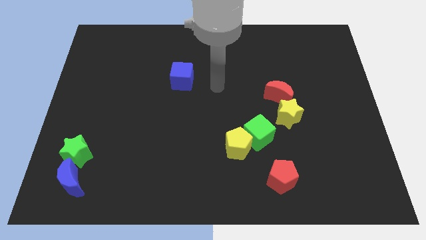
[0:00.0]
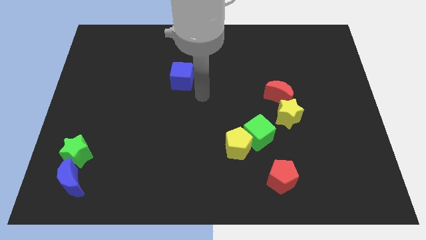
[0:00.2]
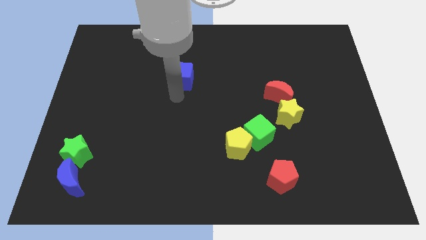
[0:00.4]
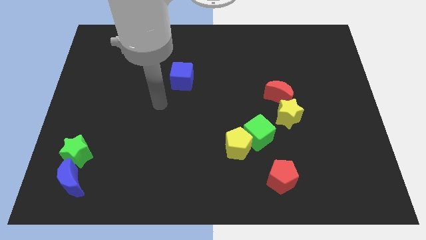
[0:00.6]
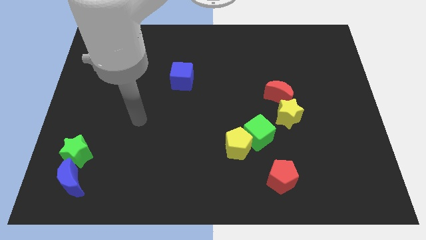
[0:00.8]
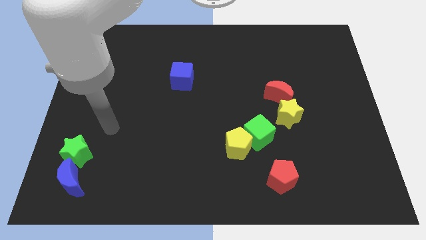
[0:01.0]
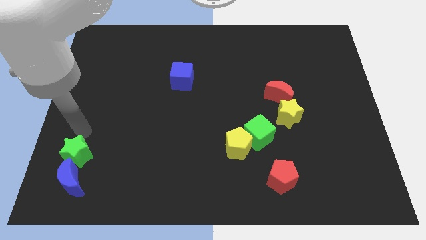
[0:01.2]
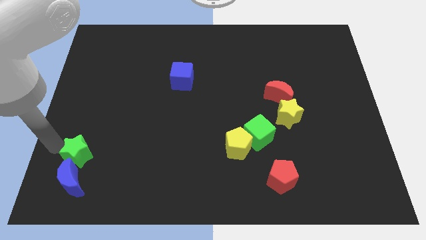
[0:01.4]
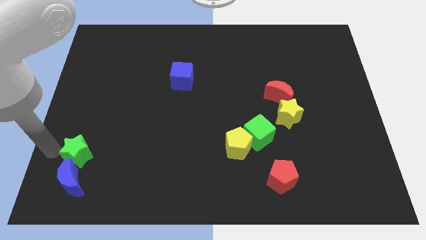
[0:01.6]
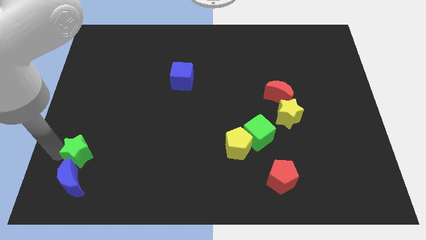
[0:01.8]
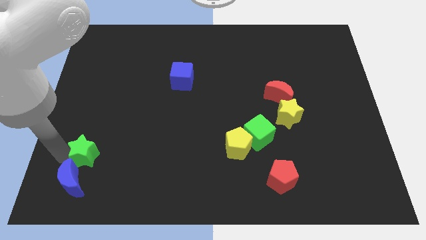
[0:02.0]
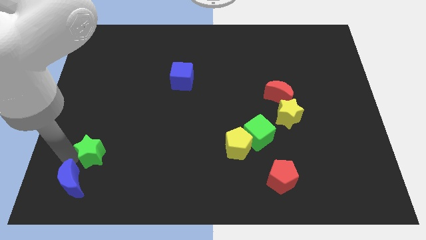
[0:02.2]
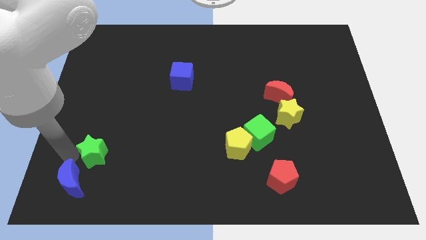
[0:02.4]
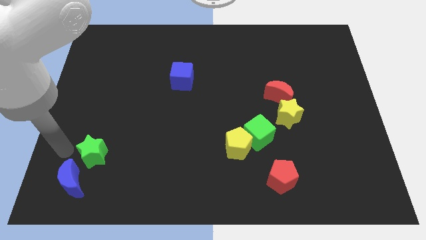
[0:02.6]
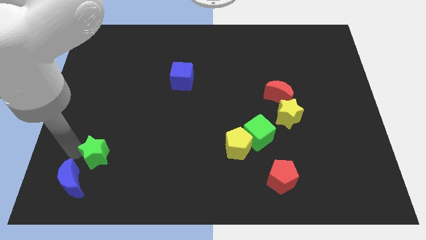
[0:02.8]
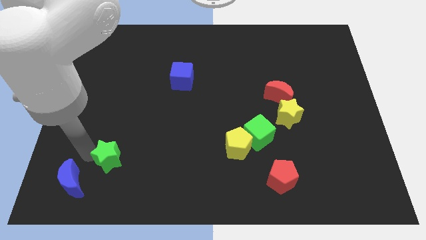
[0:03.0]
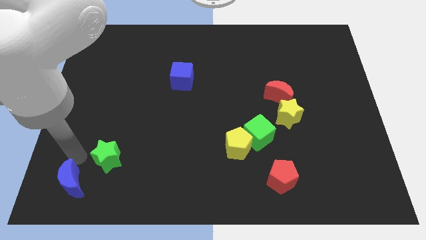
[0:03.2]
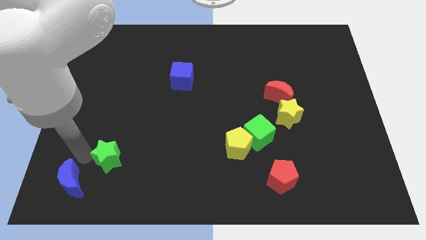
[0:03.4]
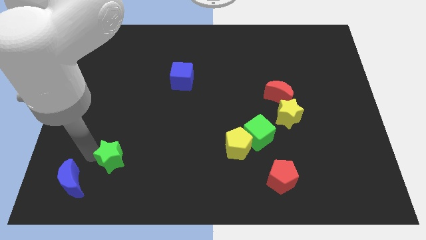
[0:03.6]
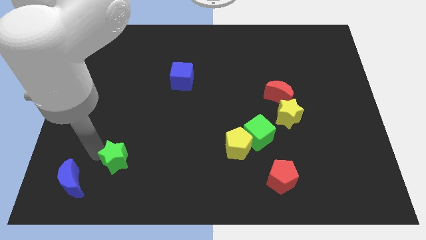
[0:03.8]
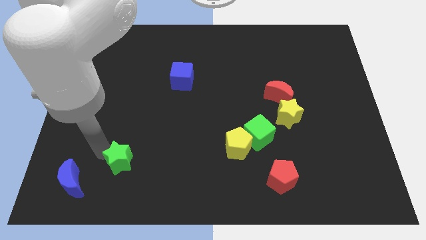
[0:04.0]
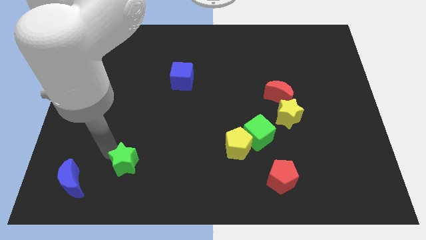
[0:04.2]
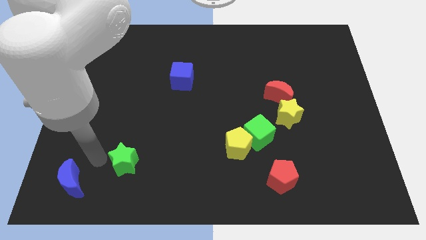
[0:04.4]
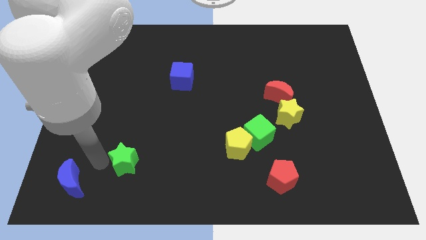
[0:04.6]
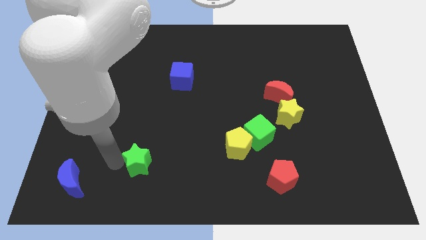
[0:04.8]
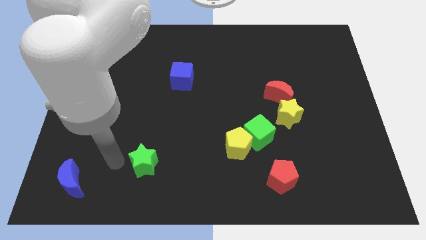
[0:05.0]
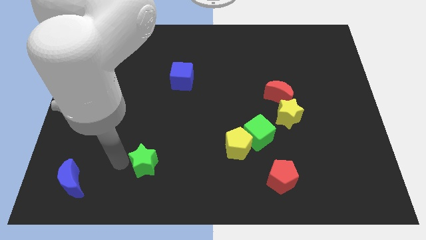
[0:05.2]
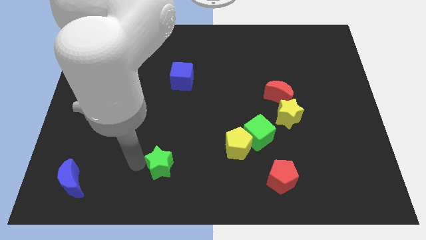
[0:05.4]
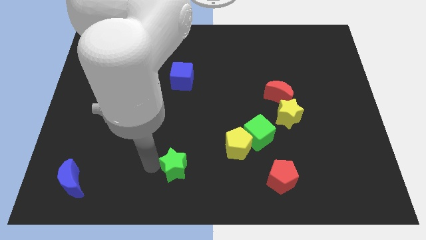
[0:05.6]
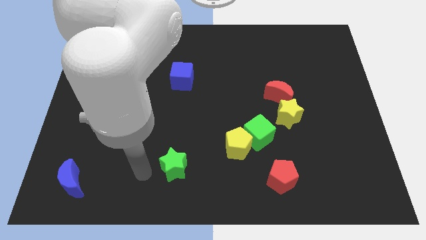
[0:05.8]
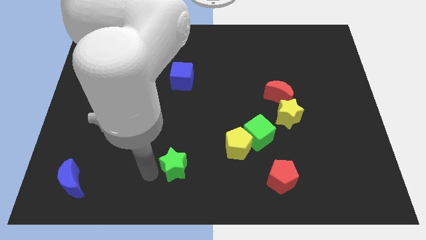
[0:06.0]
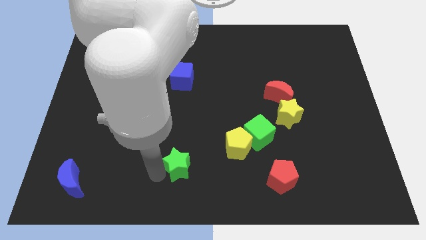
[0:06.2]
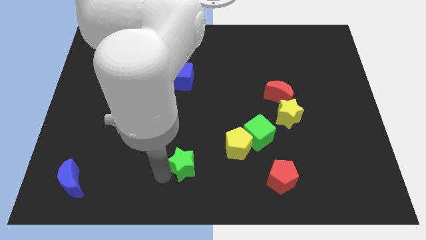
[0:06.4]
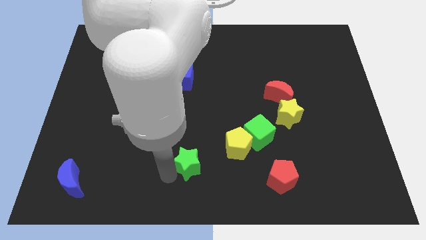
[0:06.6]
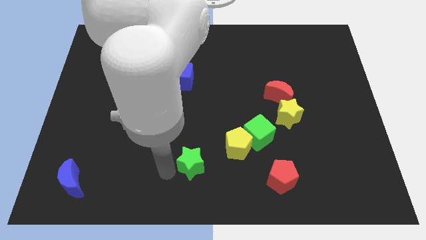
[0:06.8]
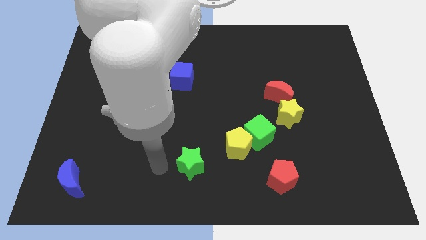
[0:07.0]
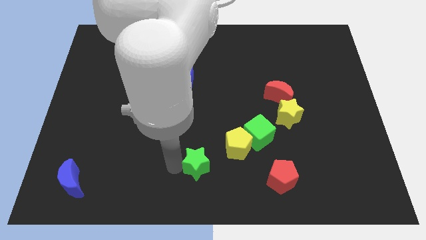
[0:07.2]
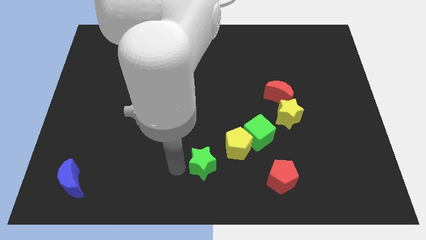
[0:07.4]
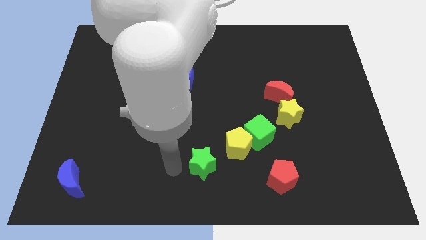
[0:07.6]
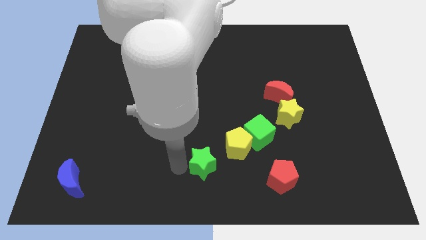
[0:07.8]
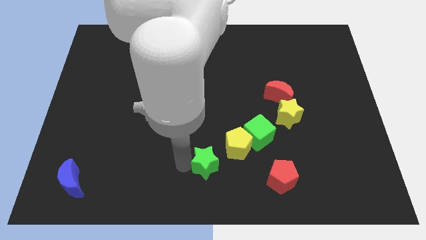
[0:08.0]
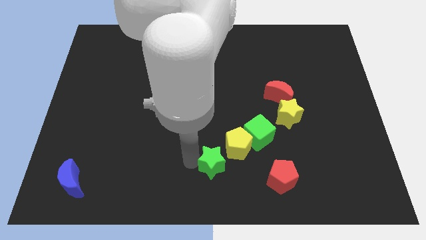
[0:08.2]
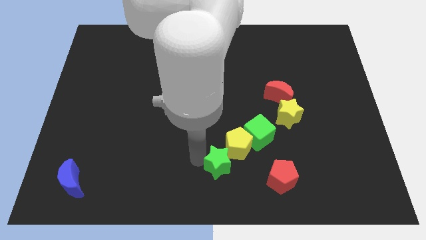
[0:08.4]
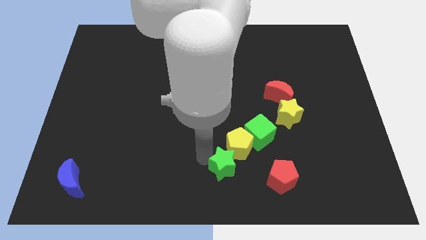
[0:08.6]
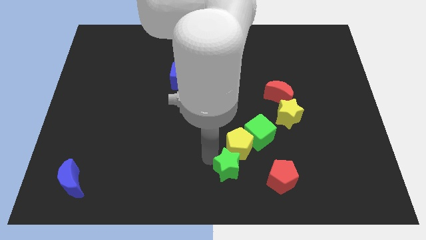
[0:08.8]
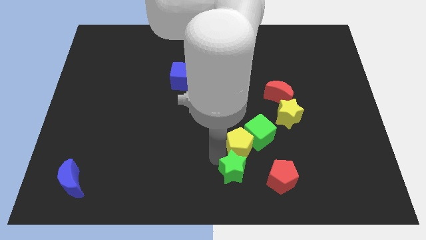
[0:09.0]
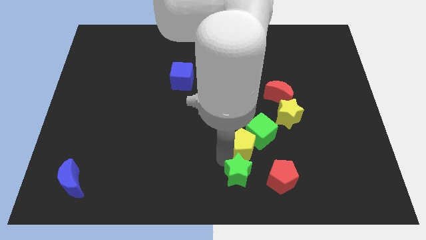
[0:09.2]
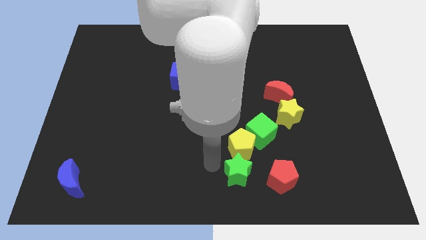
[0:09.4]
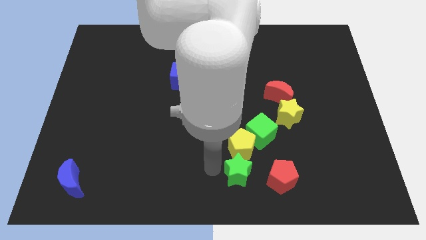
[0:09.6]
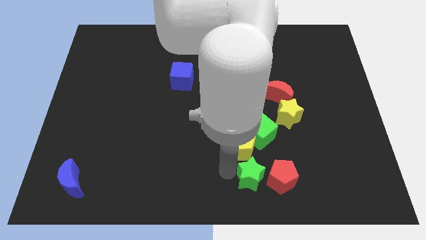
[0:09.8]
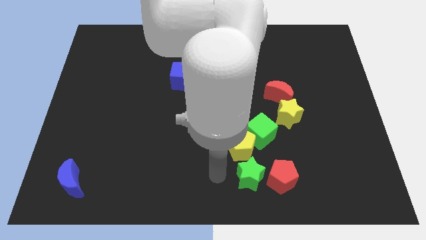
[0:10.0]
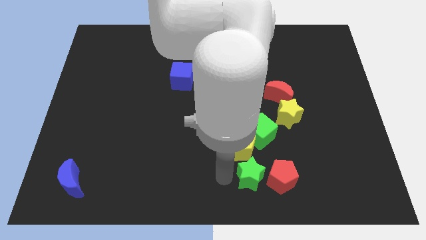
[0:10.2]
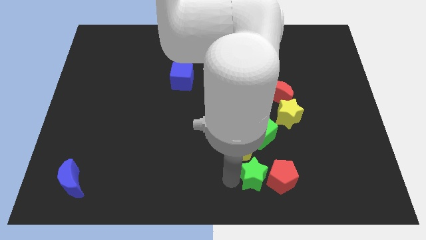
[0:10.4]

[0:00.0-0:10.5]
move the green star towards the red pentagon

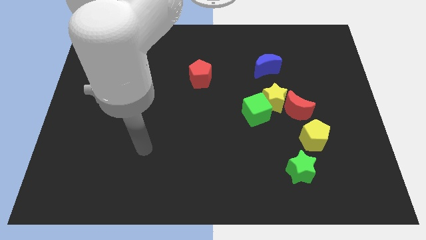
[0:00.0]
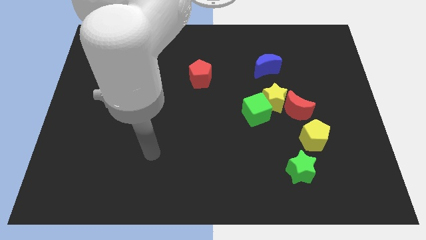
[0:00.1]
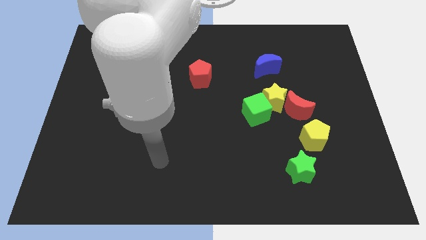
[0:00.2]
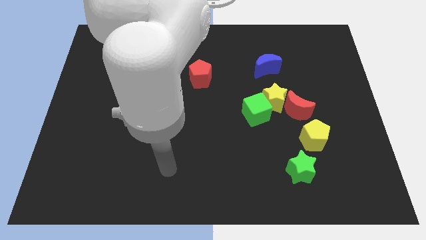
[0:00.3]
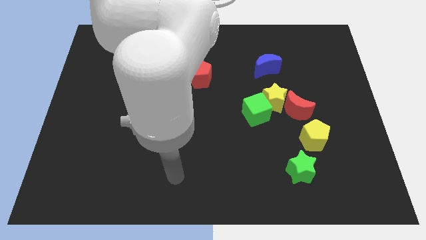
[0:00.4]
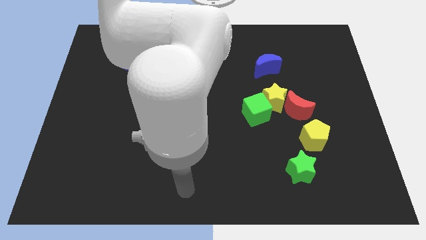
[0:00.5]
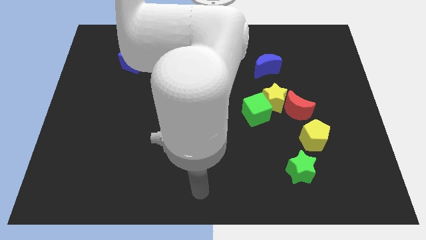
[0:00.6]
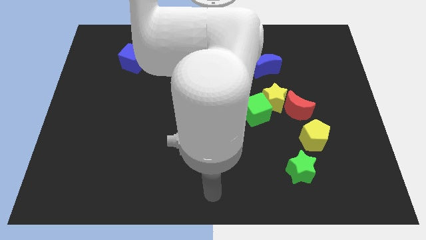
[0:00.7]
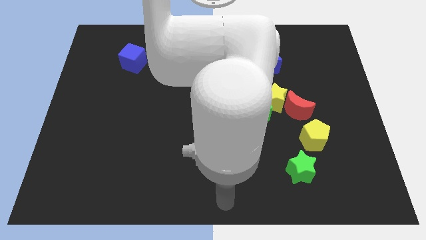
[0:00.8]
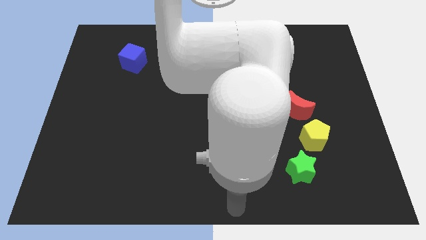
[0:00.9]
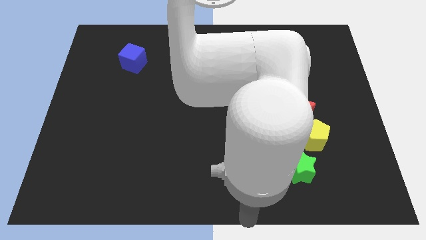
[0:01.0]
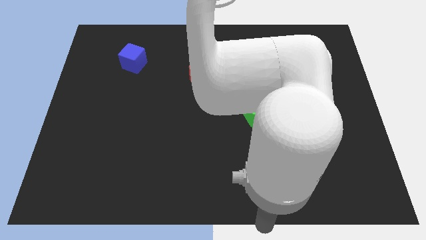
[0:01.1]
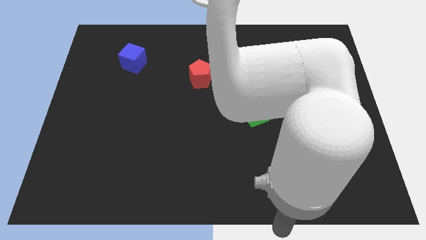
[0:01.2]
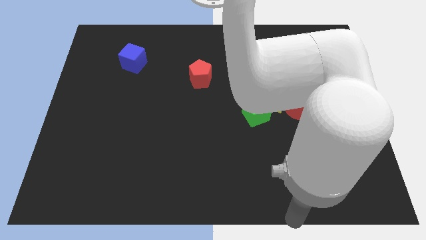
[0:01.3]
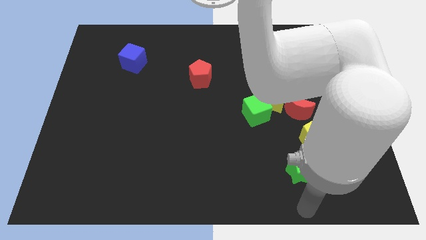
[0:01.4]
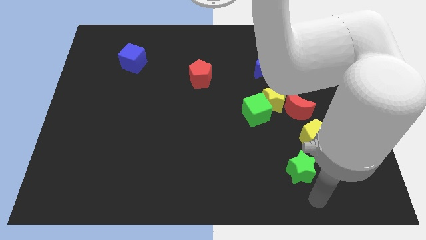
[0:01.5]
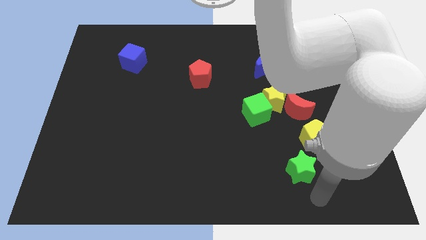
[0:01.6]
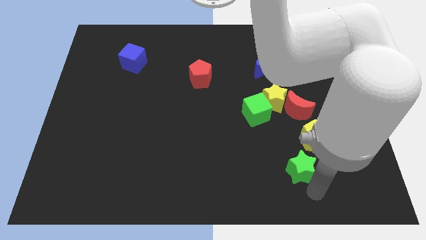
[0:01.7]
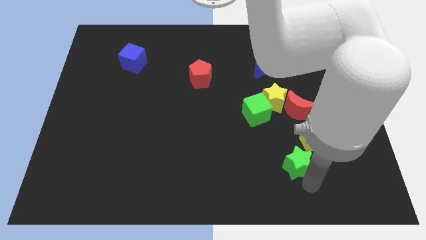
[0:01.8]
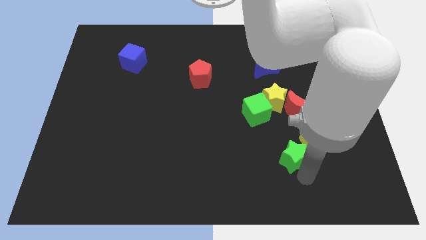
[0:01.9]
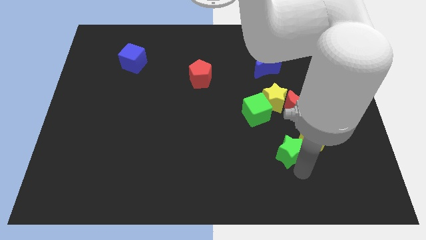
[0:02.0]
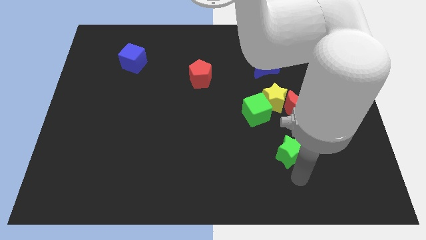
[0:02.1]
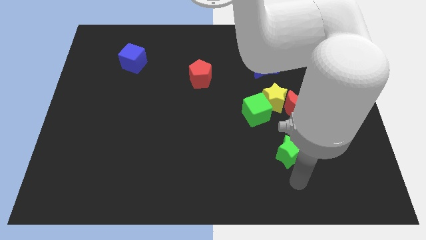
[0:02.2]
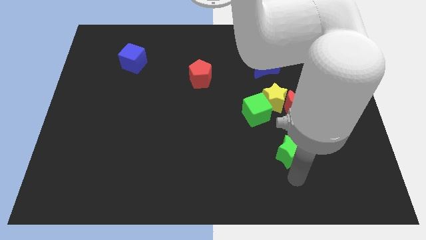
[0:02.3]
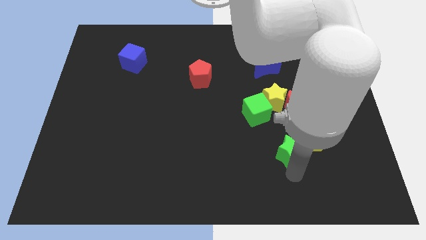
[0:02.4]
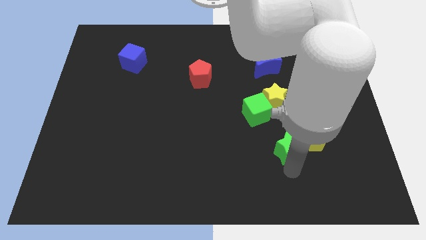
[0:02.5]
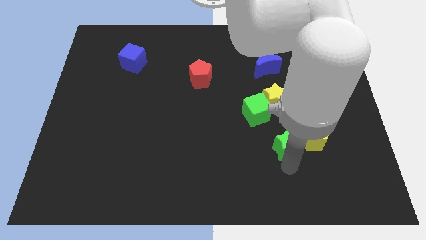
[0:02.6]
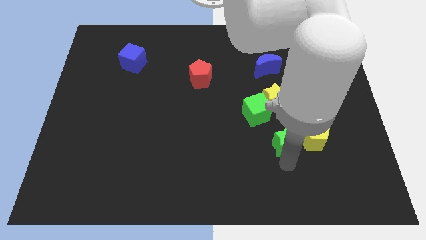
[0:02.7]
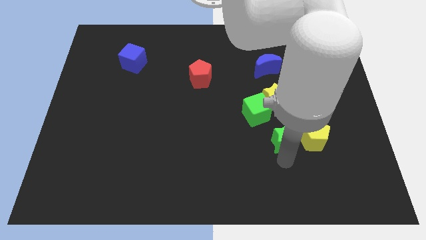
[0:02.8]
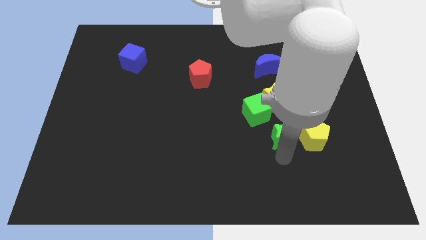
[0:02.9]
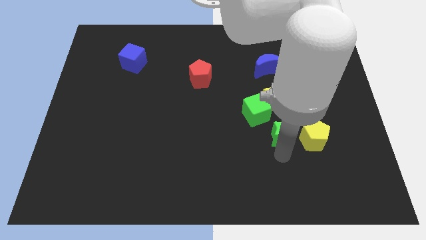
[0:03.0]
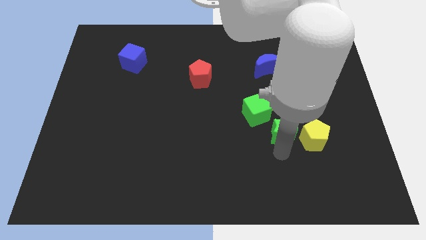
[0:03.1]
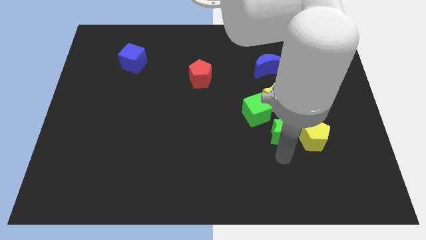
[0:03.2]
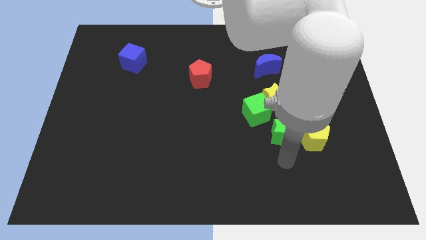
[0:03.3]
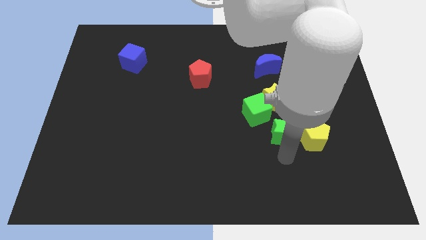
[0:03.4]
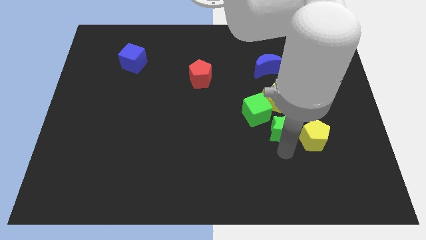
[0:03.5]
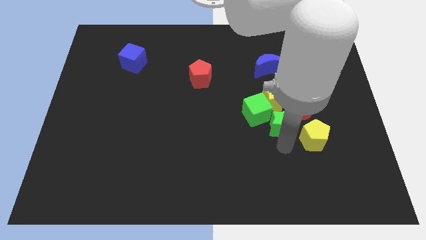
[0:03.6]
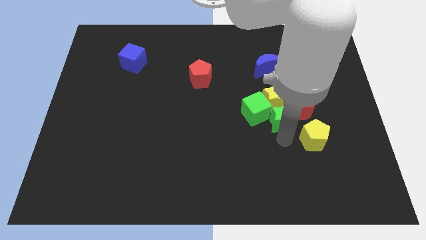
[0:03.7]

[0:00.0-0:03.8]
slide the green star close to the yellow star
